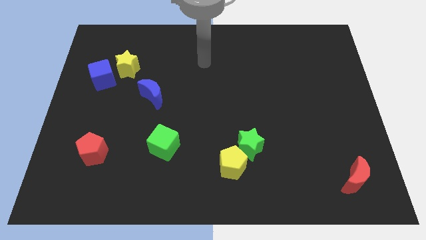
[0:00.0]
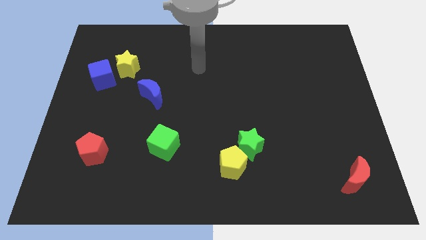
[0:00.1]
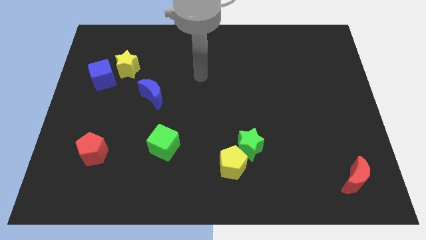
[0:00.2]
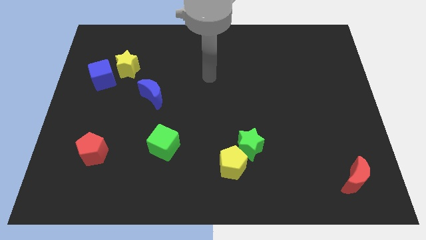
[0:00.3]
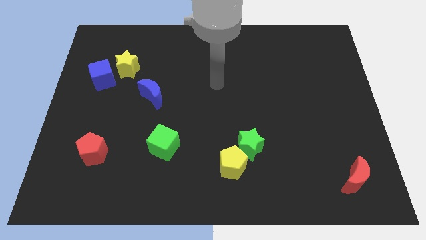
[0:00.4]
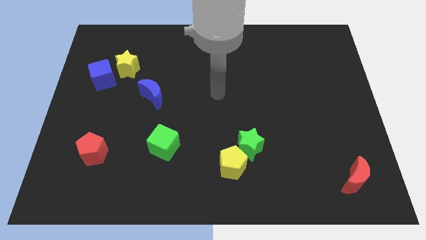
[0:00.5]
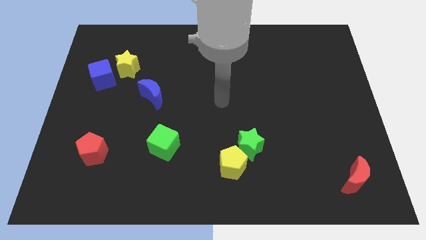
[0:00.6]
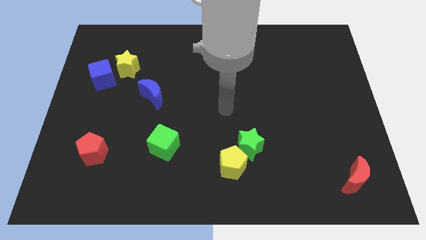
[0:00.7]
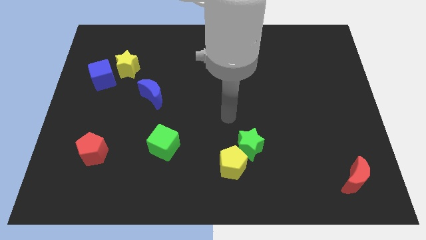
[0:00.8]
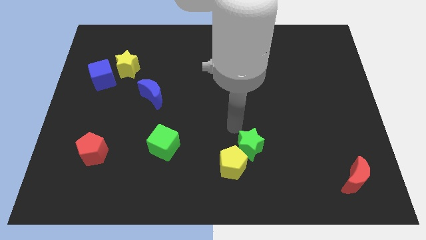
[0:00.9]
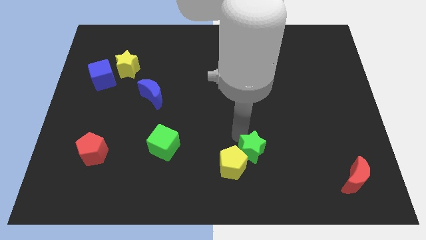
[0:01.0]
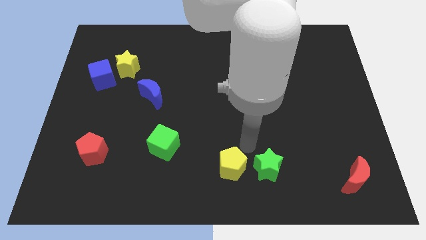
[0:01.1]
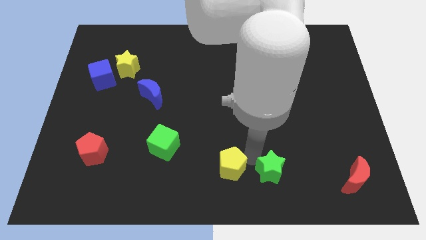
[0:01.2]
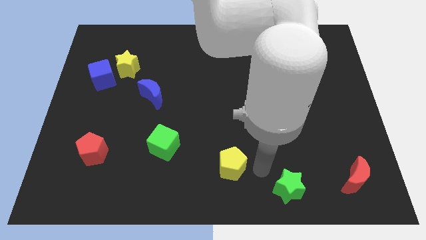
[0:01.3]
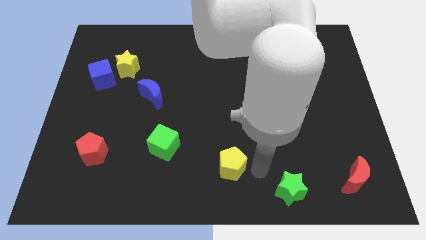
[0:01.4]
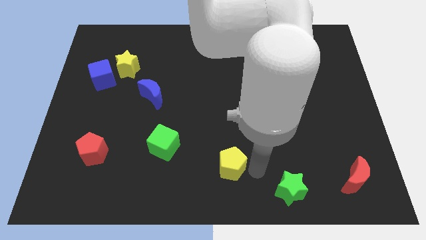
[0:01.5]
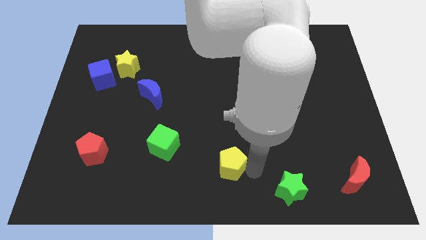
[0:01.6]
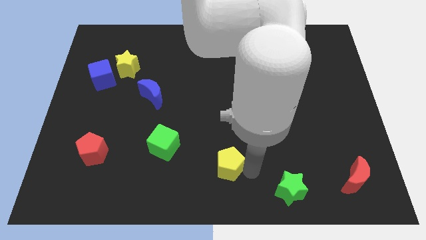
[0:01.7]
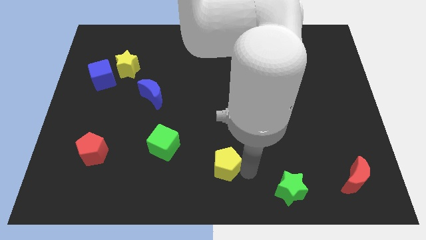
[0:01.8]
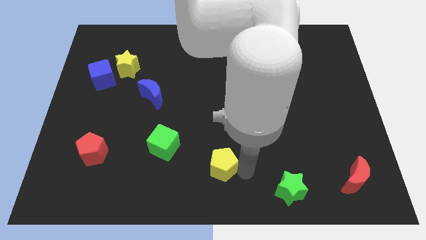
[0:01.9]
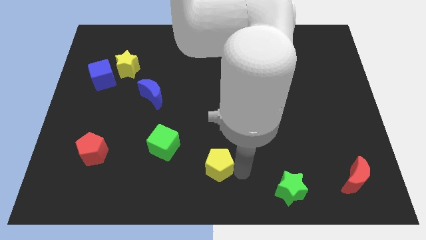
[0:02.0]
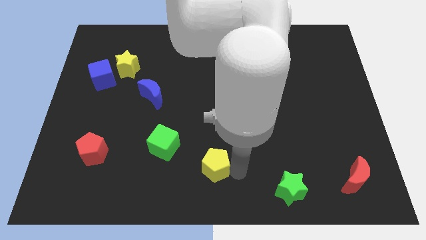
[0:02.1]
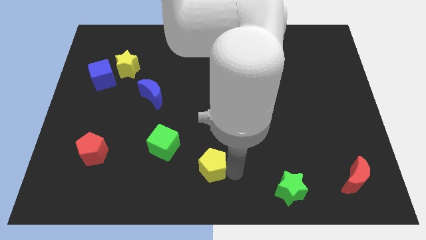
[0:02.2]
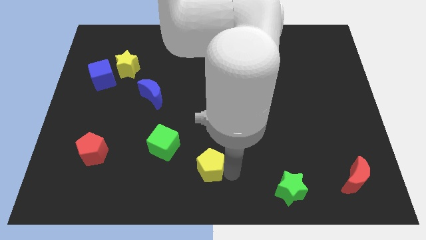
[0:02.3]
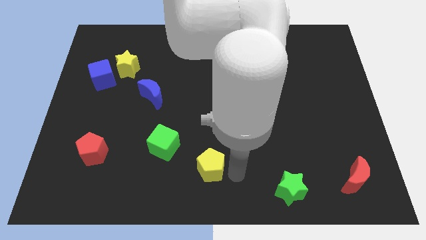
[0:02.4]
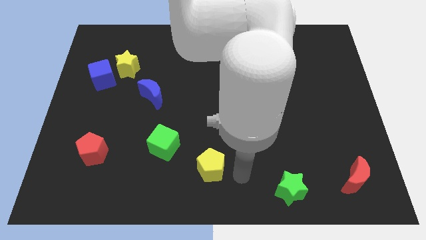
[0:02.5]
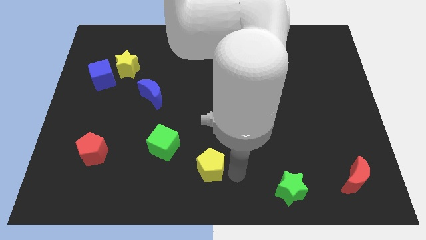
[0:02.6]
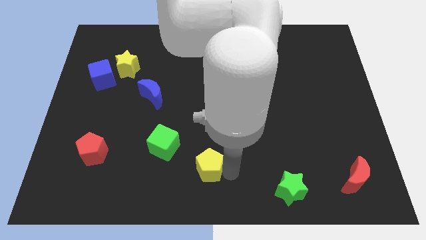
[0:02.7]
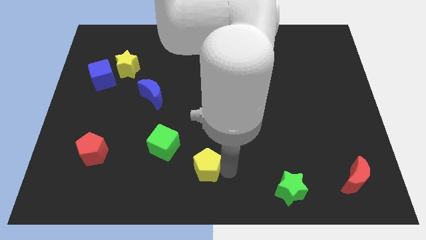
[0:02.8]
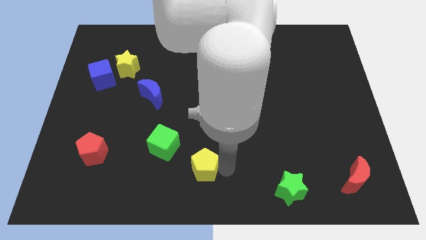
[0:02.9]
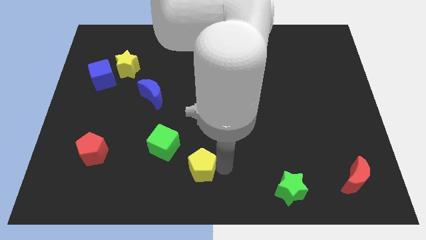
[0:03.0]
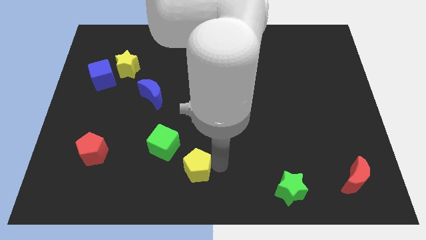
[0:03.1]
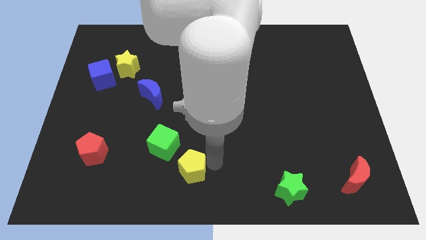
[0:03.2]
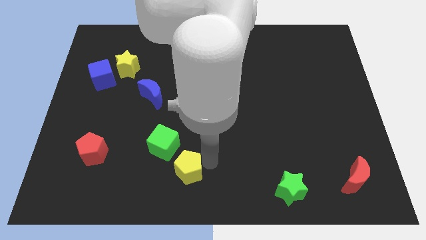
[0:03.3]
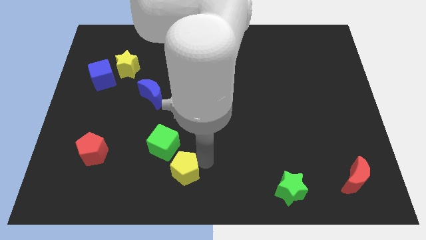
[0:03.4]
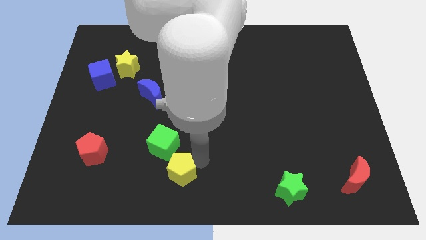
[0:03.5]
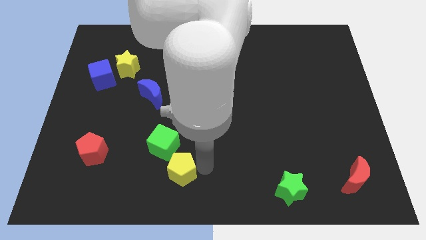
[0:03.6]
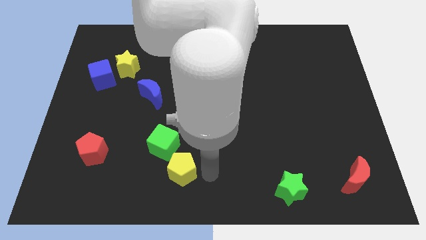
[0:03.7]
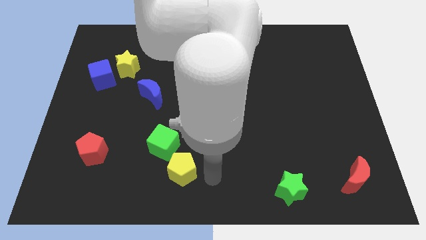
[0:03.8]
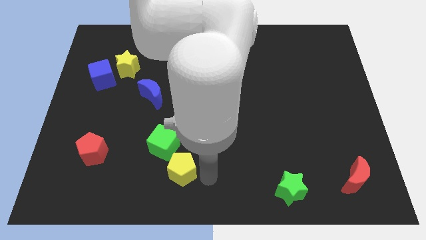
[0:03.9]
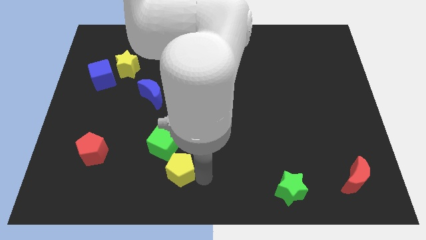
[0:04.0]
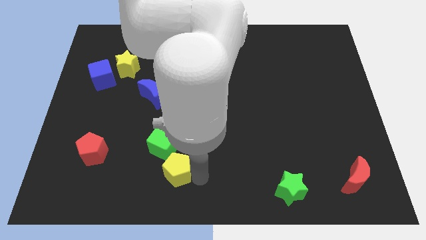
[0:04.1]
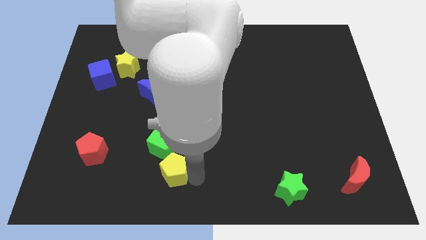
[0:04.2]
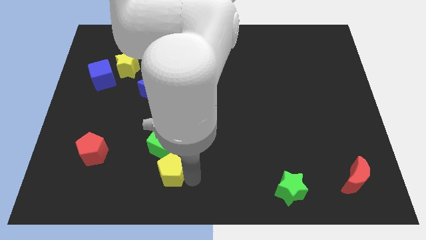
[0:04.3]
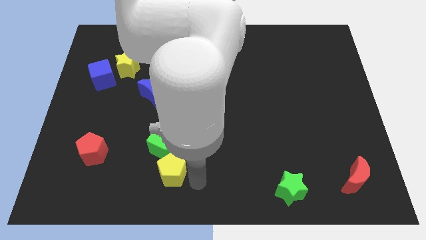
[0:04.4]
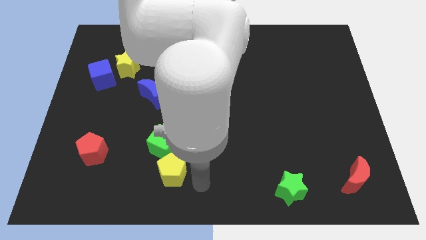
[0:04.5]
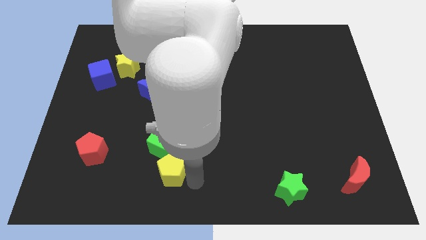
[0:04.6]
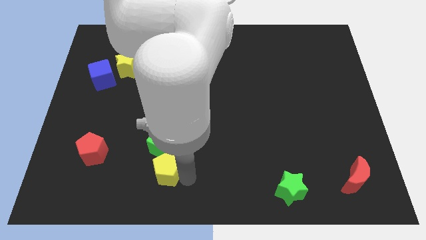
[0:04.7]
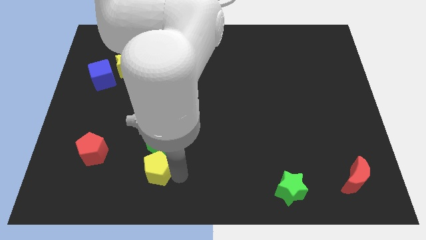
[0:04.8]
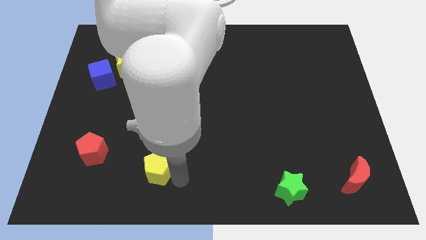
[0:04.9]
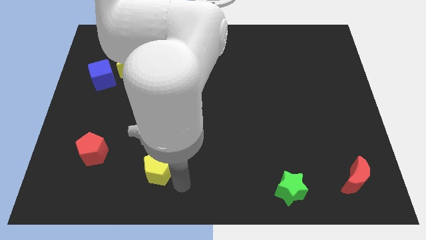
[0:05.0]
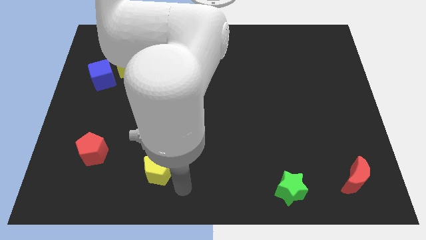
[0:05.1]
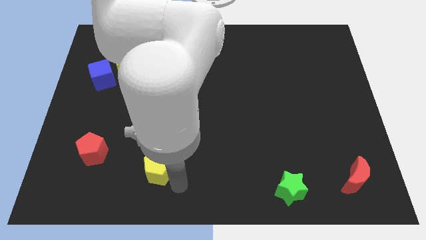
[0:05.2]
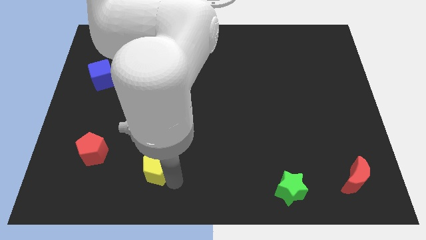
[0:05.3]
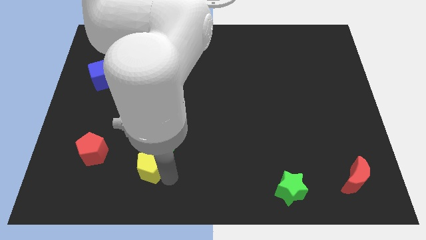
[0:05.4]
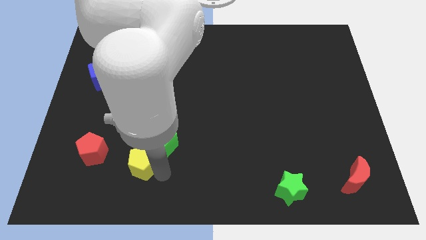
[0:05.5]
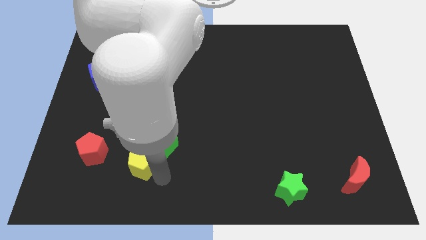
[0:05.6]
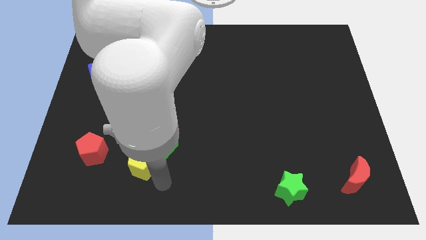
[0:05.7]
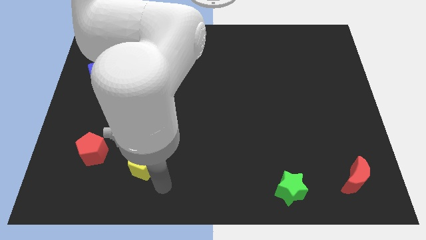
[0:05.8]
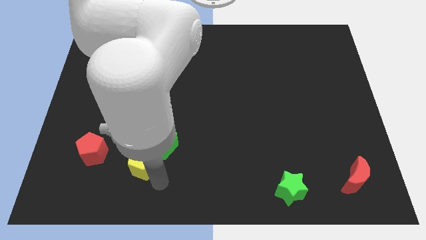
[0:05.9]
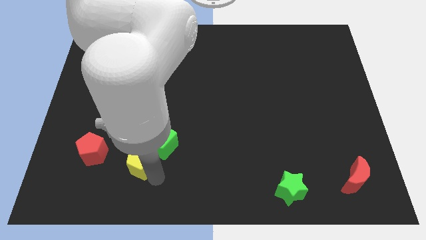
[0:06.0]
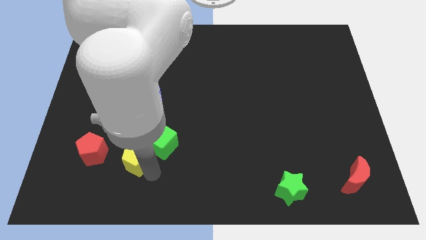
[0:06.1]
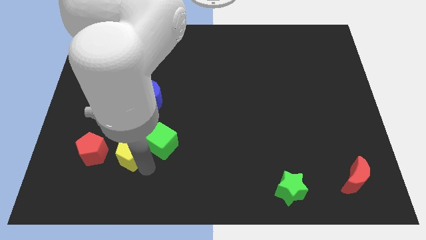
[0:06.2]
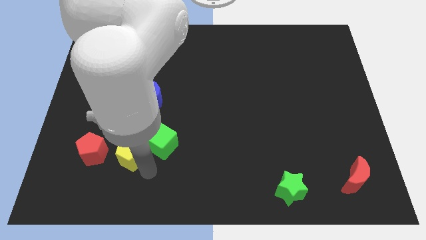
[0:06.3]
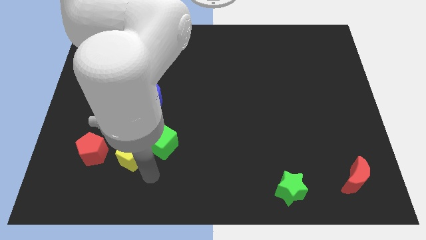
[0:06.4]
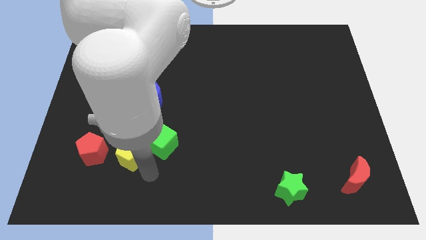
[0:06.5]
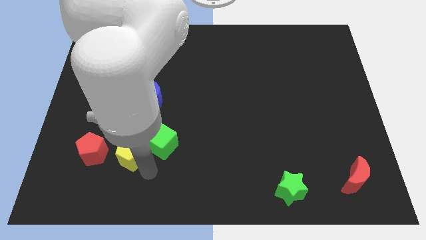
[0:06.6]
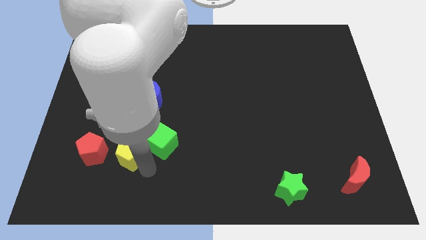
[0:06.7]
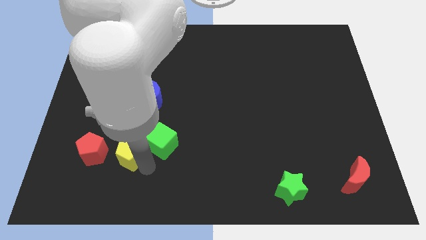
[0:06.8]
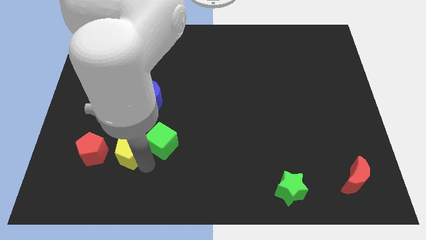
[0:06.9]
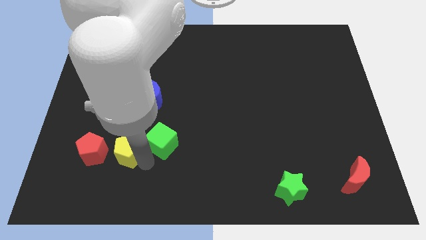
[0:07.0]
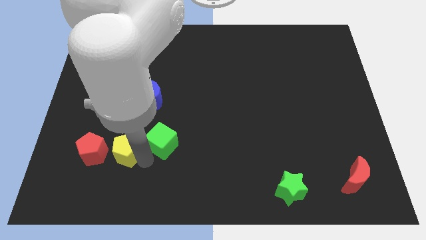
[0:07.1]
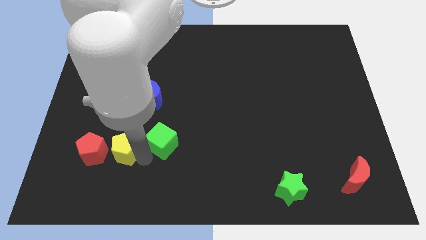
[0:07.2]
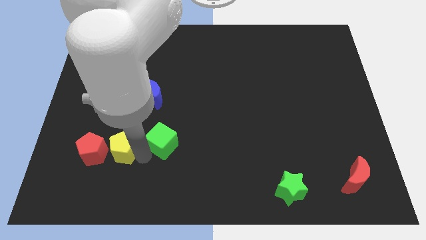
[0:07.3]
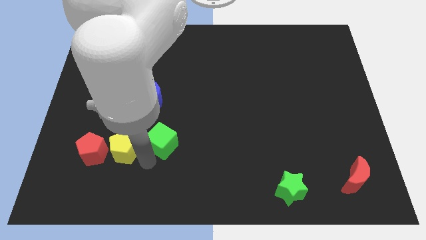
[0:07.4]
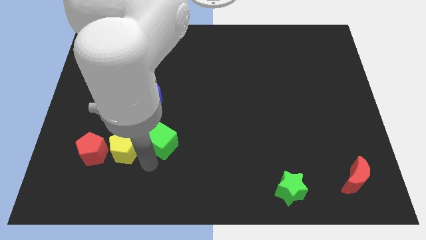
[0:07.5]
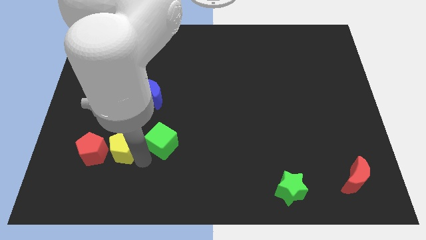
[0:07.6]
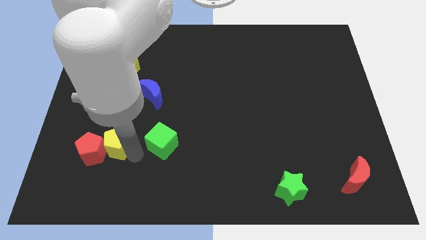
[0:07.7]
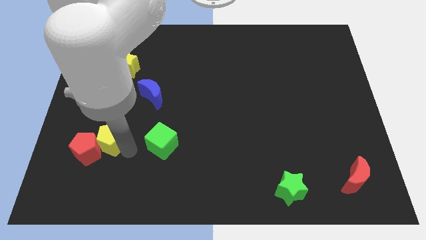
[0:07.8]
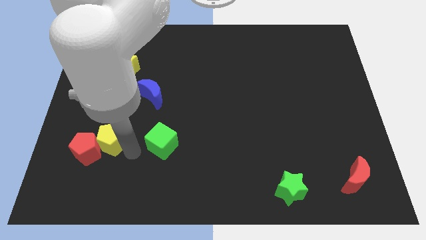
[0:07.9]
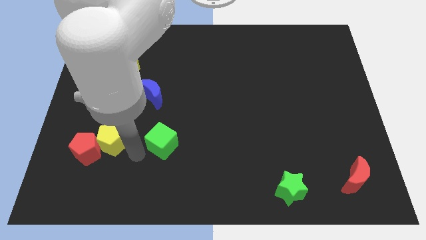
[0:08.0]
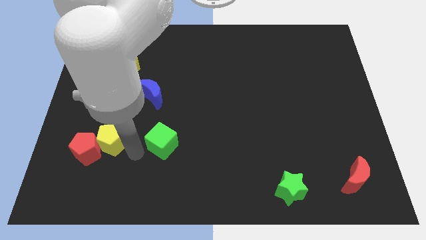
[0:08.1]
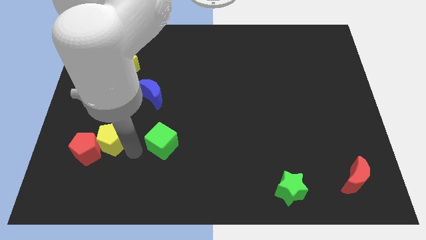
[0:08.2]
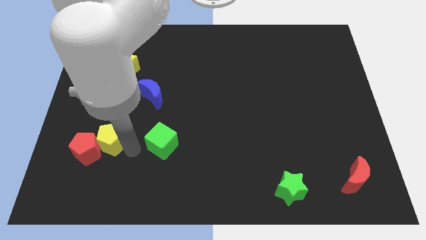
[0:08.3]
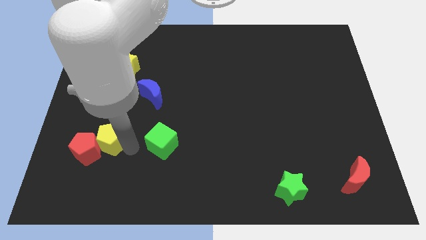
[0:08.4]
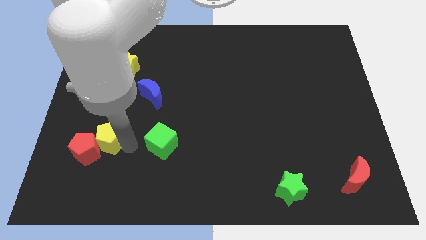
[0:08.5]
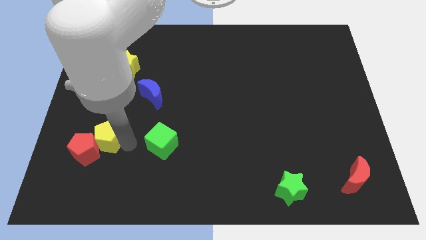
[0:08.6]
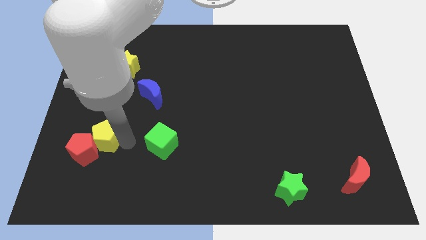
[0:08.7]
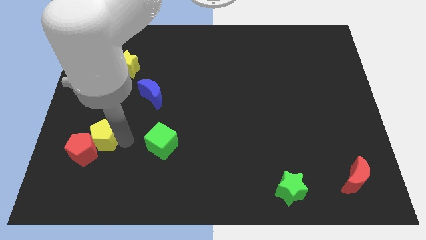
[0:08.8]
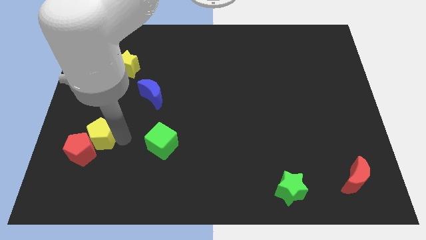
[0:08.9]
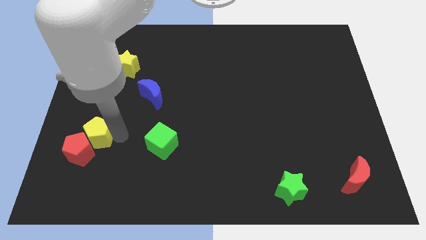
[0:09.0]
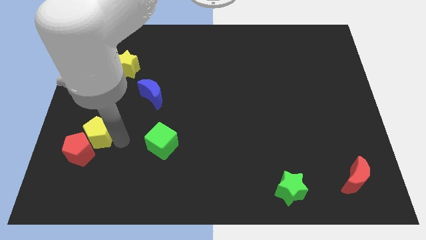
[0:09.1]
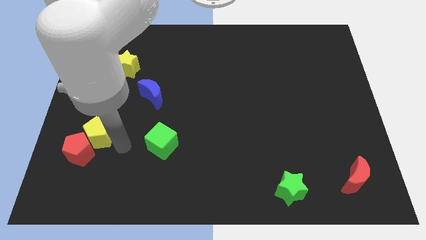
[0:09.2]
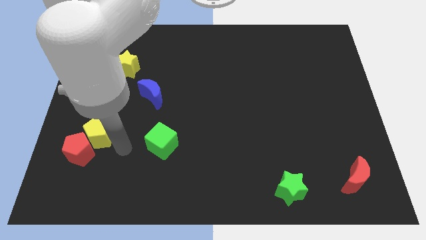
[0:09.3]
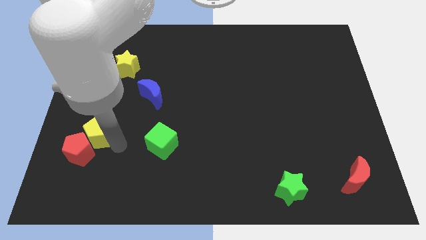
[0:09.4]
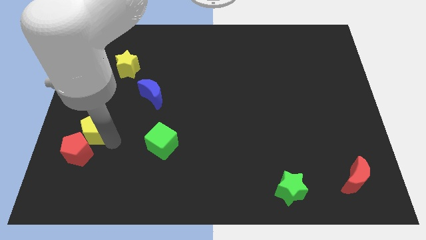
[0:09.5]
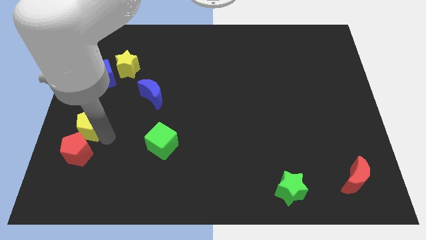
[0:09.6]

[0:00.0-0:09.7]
slide the yellow pentagon to the left side
